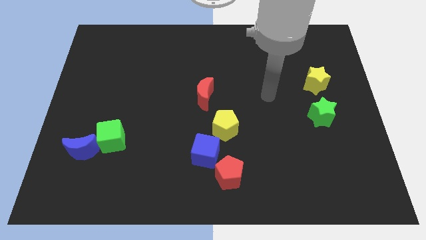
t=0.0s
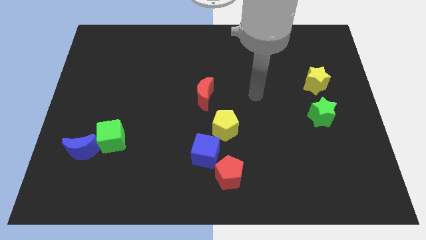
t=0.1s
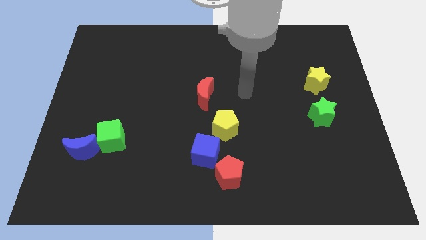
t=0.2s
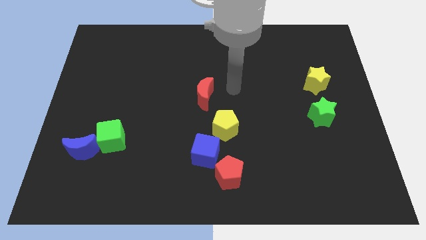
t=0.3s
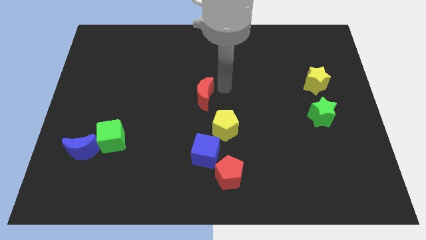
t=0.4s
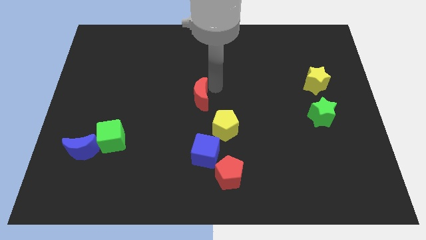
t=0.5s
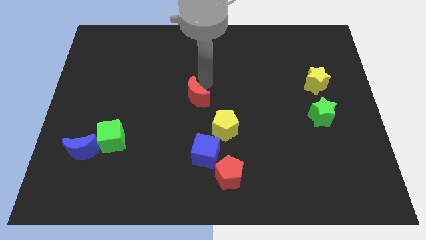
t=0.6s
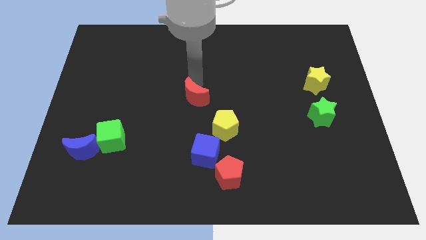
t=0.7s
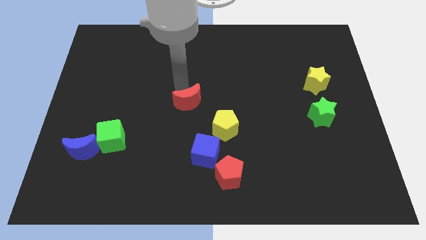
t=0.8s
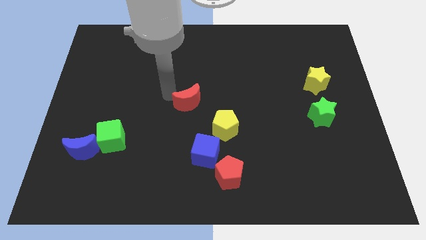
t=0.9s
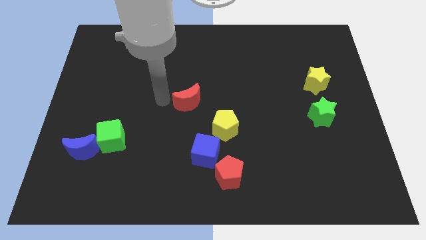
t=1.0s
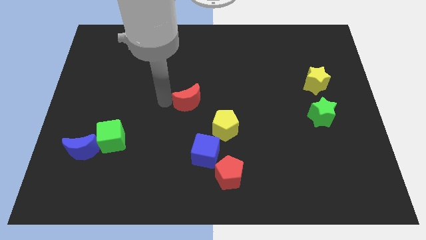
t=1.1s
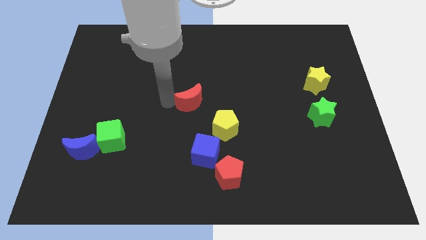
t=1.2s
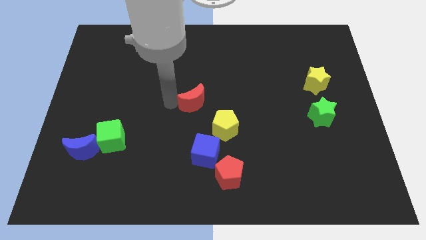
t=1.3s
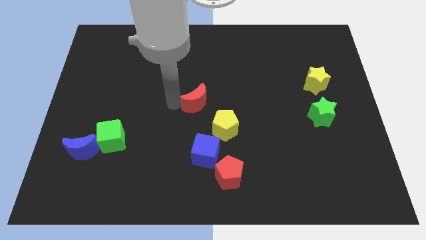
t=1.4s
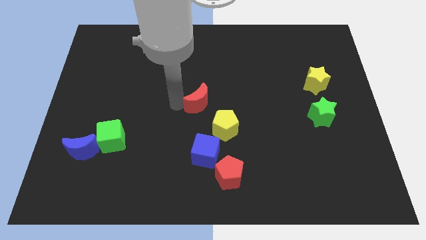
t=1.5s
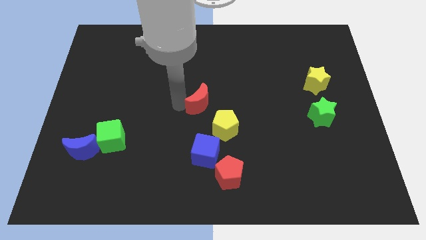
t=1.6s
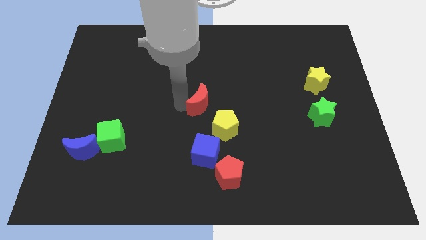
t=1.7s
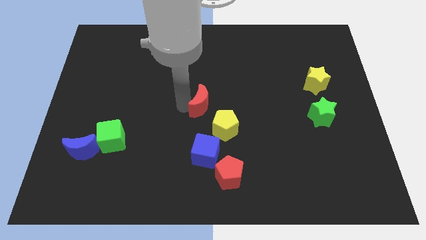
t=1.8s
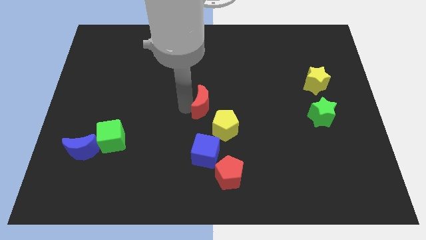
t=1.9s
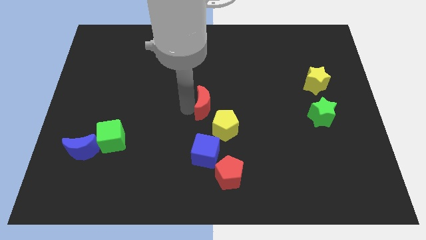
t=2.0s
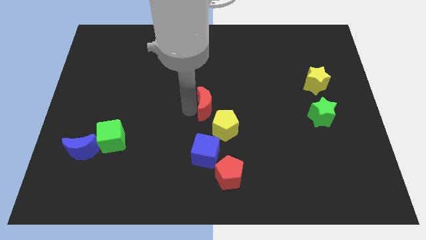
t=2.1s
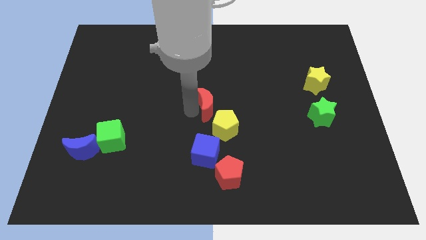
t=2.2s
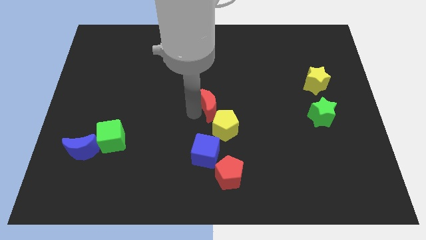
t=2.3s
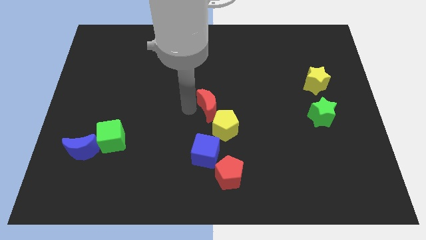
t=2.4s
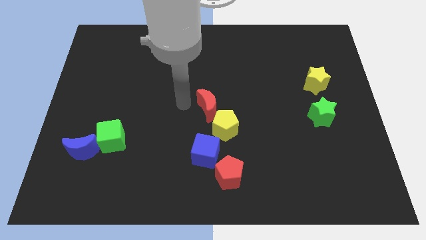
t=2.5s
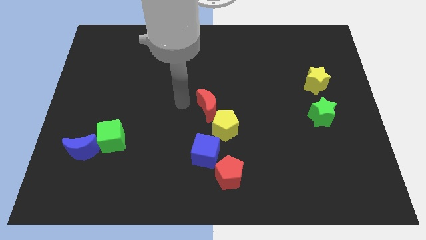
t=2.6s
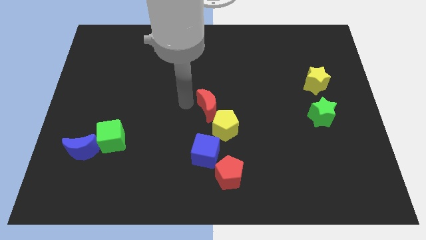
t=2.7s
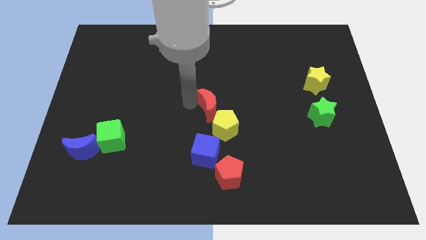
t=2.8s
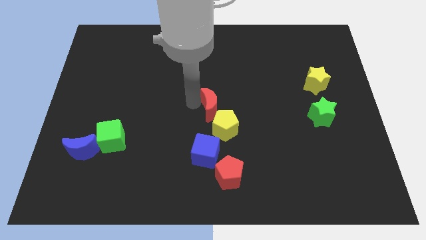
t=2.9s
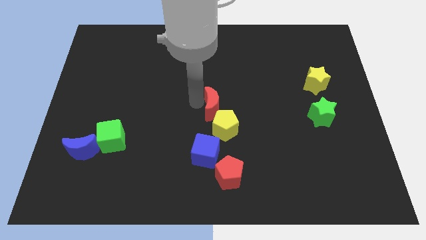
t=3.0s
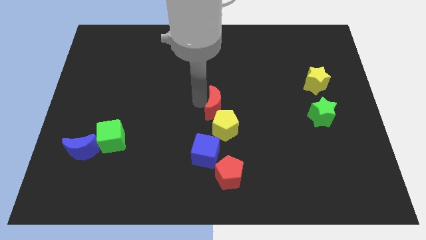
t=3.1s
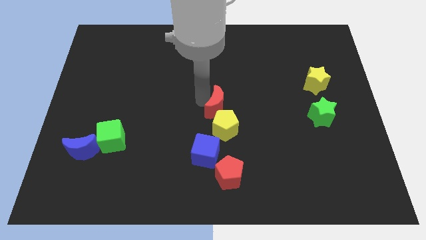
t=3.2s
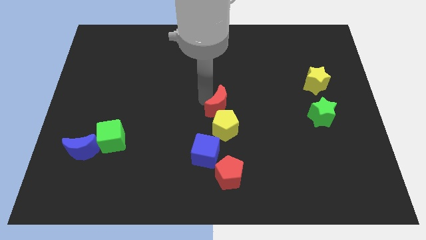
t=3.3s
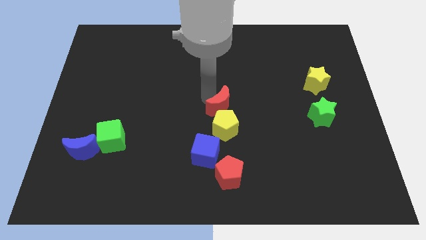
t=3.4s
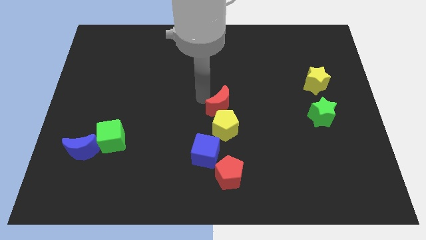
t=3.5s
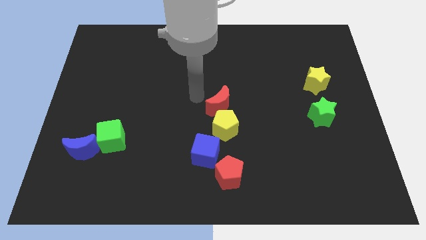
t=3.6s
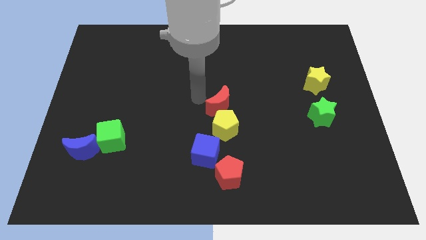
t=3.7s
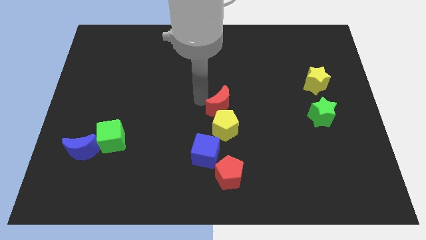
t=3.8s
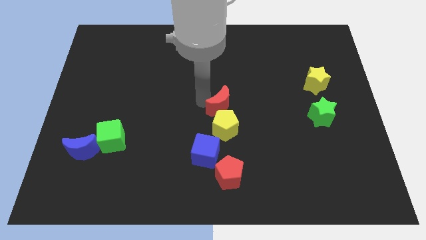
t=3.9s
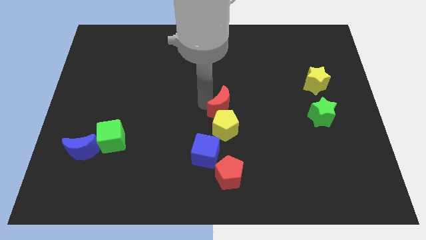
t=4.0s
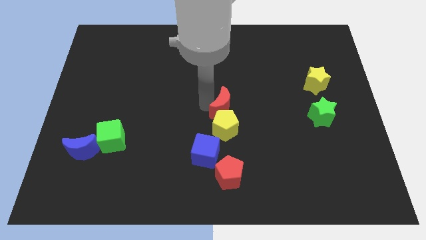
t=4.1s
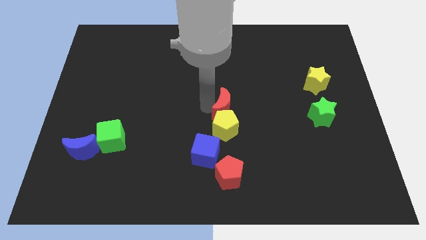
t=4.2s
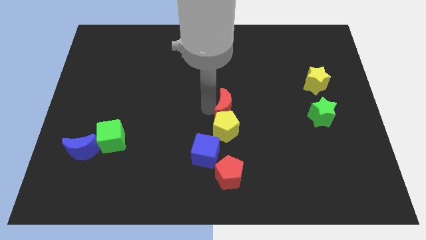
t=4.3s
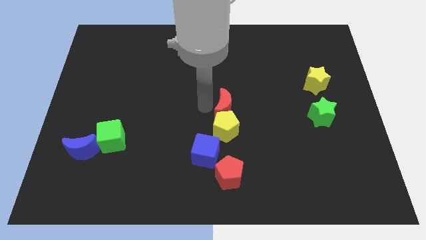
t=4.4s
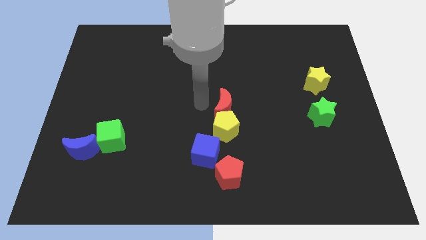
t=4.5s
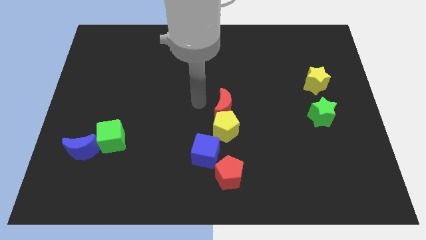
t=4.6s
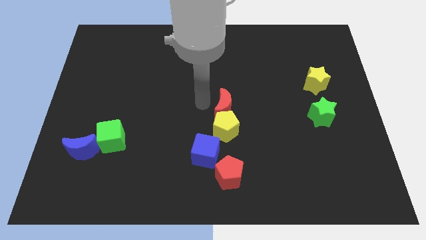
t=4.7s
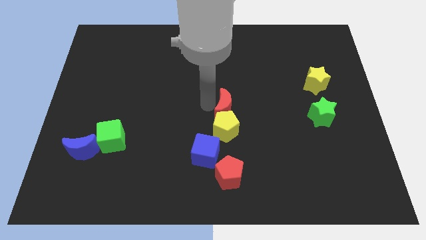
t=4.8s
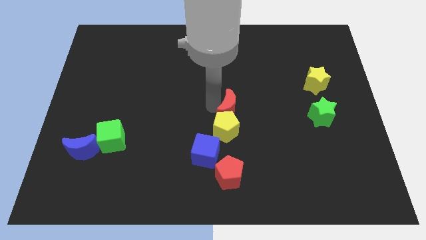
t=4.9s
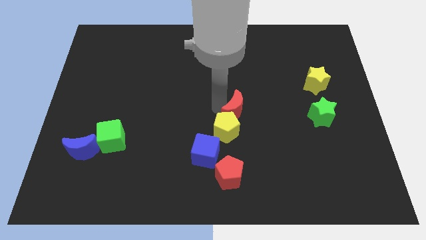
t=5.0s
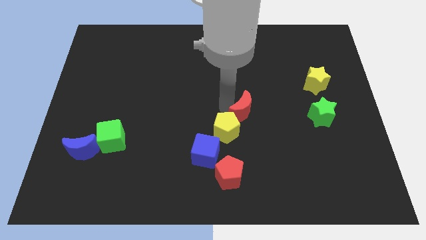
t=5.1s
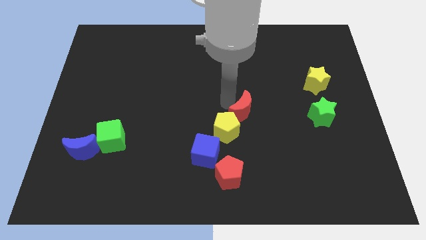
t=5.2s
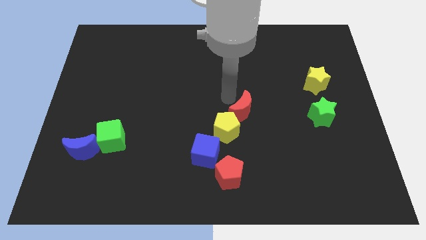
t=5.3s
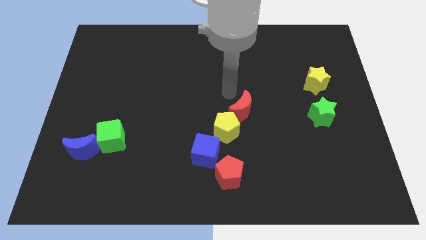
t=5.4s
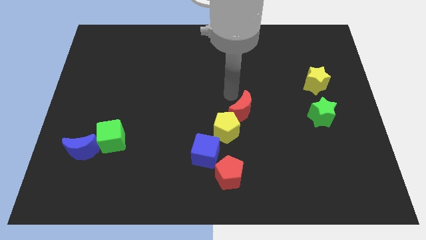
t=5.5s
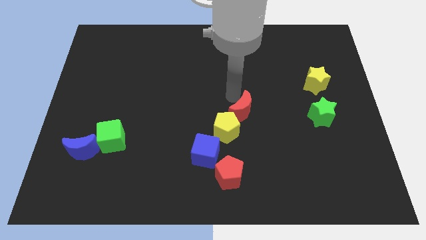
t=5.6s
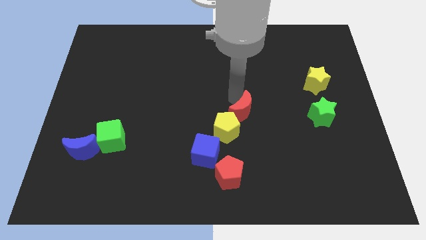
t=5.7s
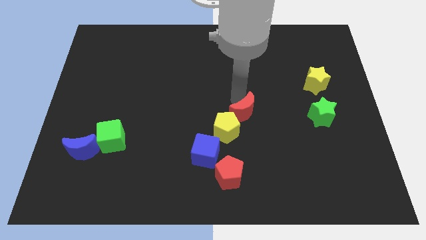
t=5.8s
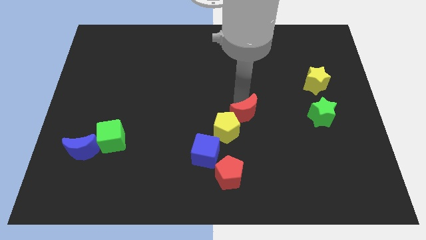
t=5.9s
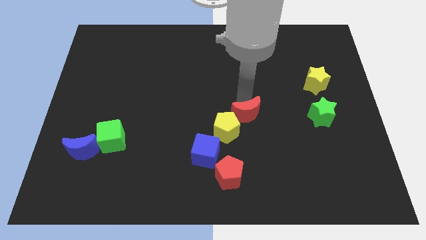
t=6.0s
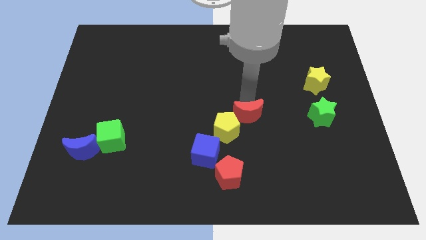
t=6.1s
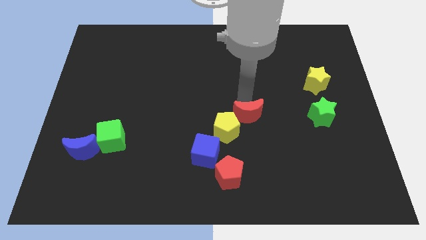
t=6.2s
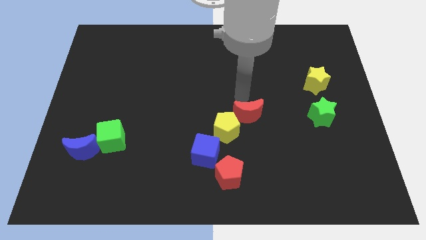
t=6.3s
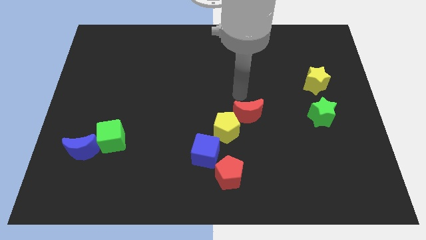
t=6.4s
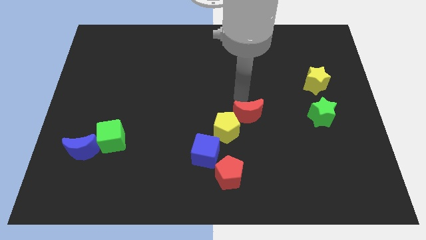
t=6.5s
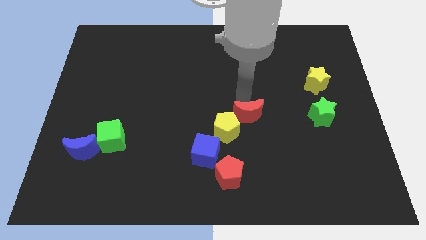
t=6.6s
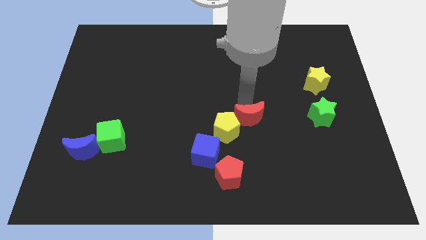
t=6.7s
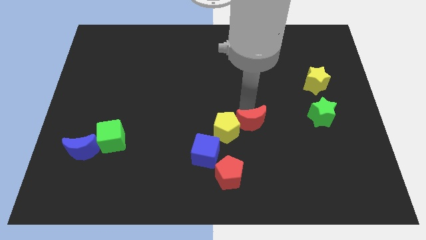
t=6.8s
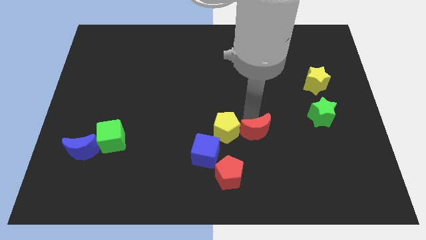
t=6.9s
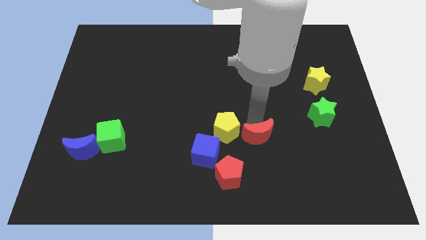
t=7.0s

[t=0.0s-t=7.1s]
push the red moon right of the blue cube
